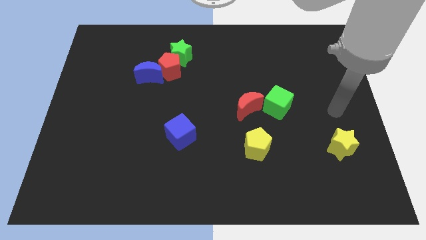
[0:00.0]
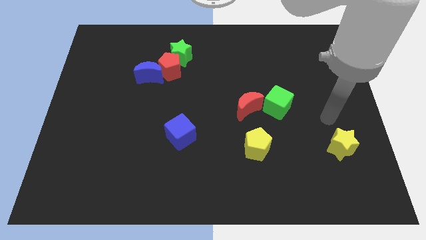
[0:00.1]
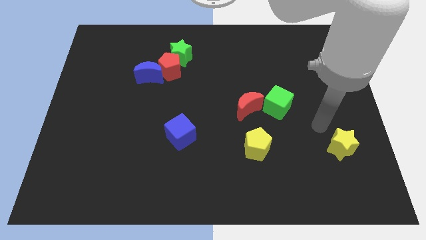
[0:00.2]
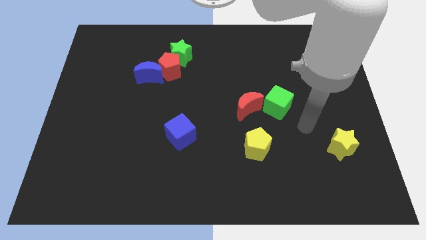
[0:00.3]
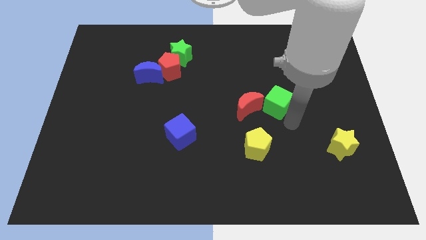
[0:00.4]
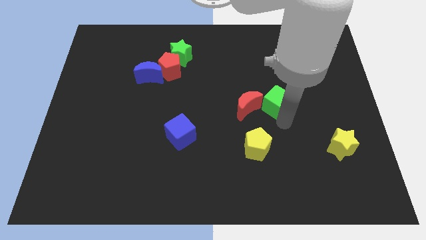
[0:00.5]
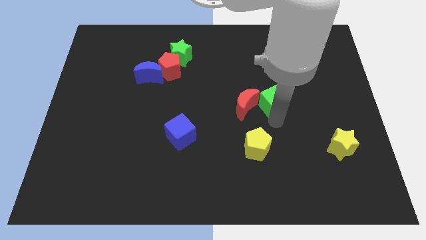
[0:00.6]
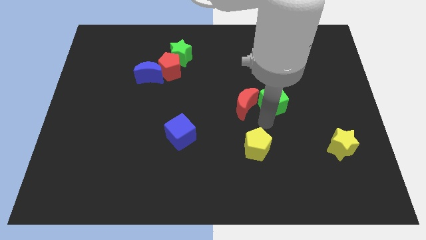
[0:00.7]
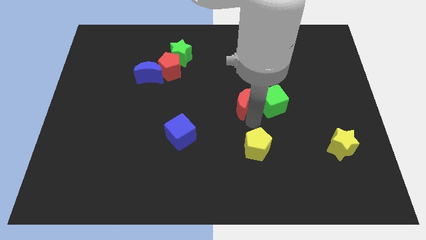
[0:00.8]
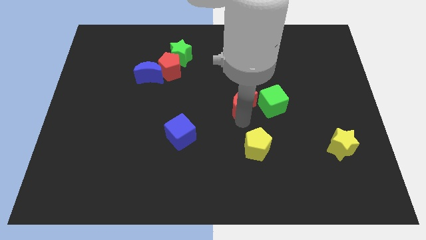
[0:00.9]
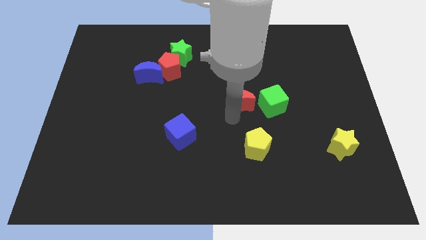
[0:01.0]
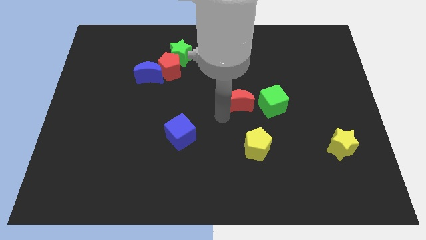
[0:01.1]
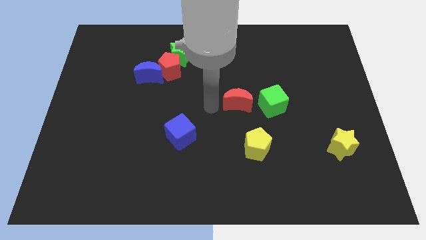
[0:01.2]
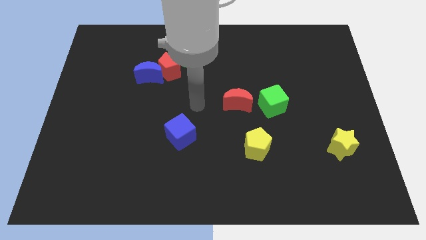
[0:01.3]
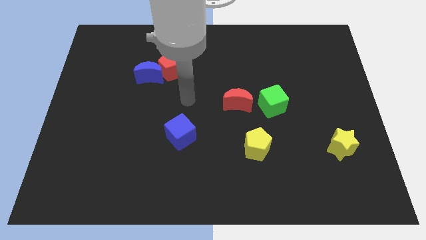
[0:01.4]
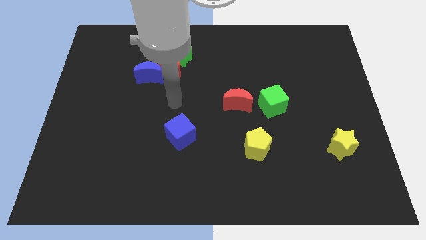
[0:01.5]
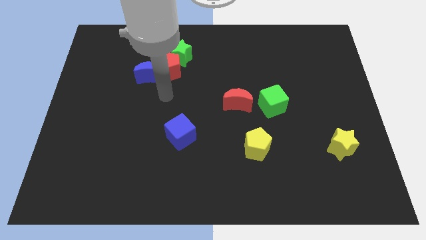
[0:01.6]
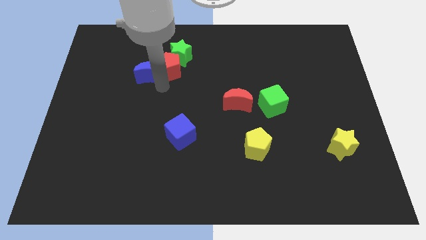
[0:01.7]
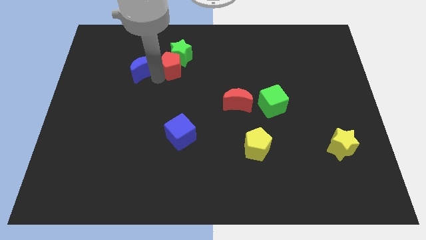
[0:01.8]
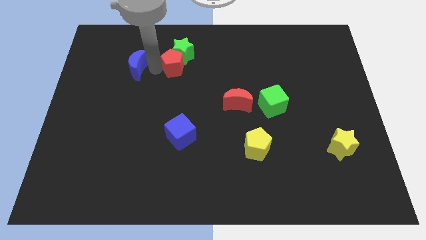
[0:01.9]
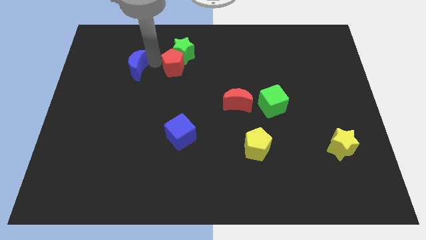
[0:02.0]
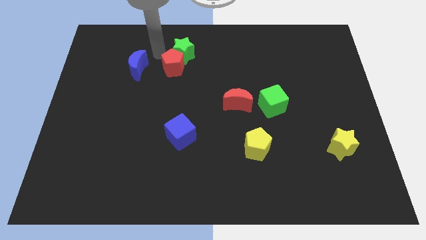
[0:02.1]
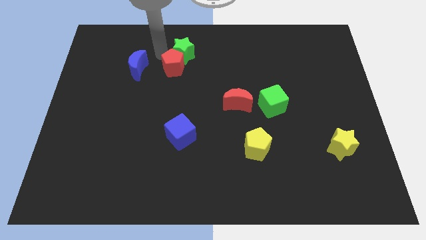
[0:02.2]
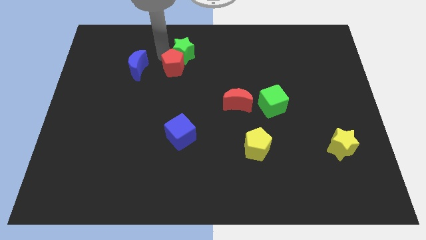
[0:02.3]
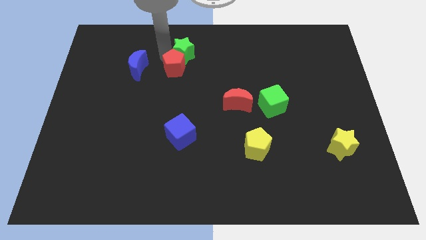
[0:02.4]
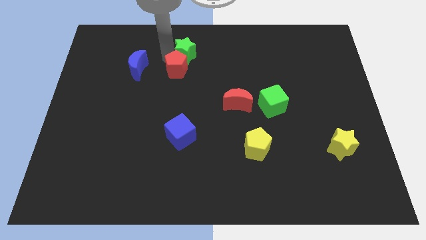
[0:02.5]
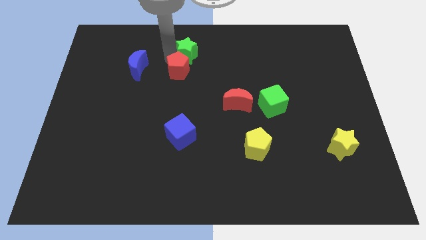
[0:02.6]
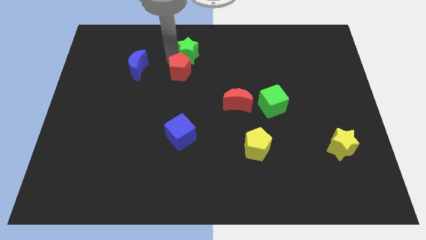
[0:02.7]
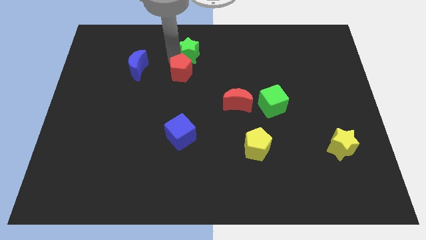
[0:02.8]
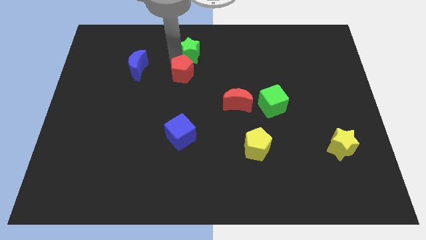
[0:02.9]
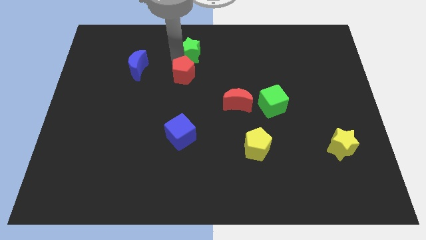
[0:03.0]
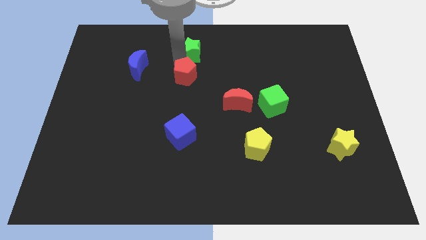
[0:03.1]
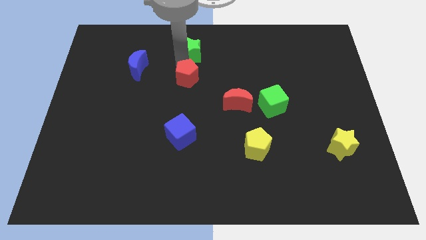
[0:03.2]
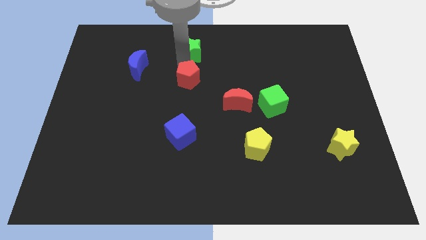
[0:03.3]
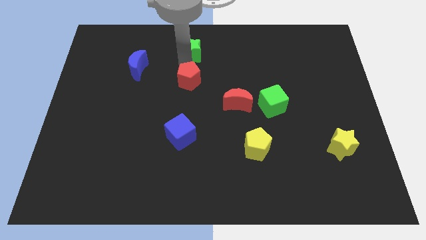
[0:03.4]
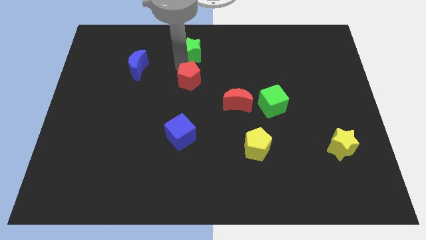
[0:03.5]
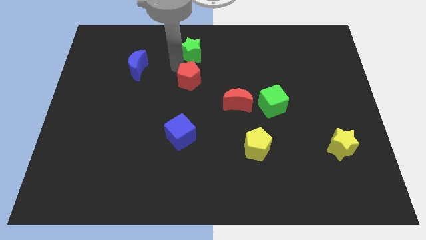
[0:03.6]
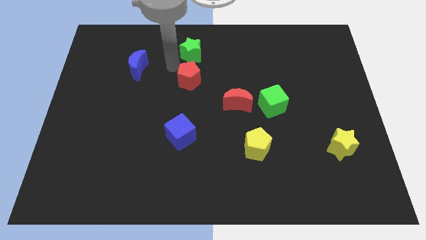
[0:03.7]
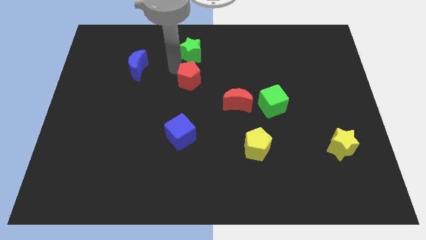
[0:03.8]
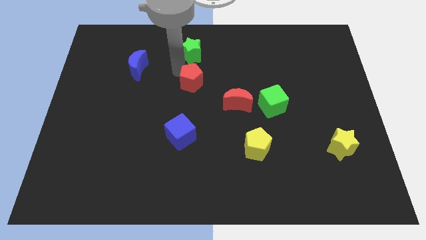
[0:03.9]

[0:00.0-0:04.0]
move the red pentagon away from the green star and blue moon

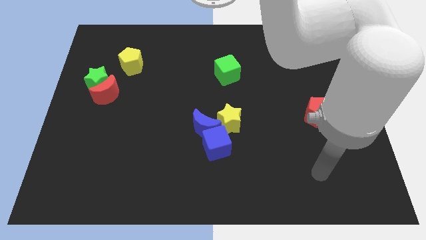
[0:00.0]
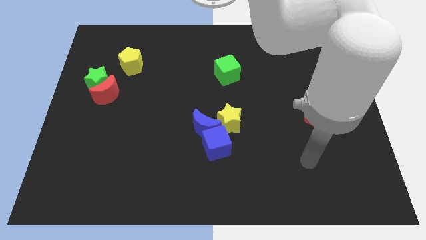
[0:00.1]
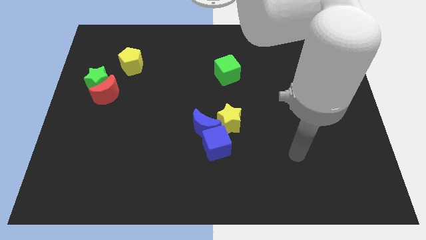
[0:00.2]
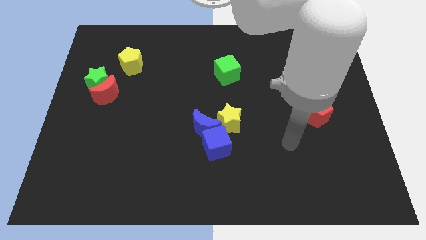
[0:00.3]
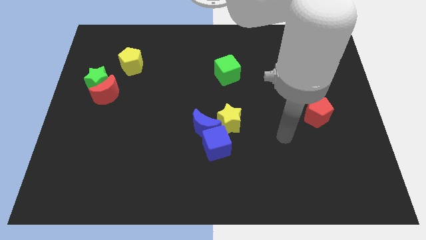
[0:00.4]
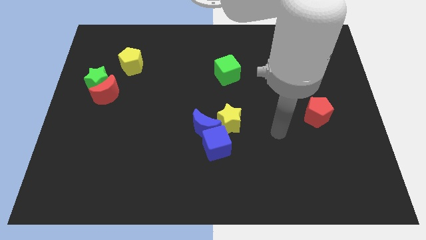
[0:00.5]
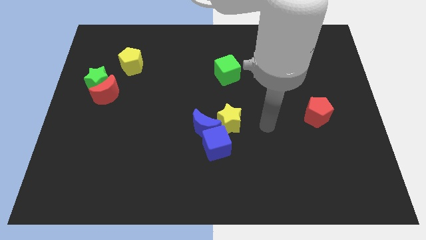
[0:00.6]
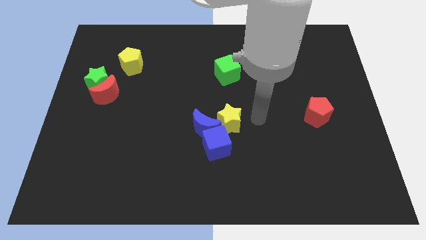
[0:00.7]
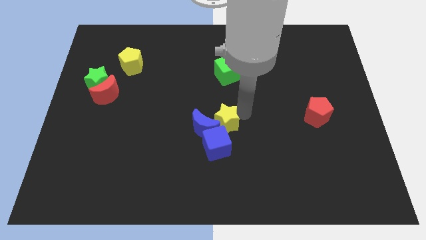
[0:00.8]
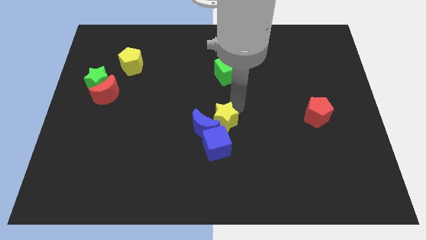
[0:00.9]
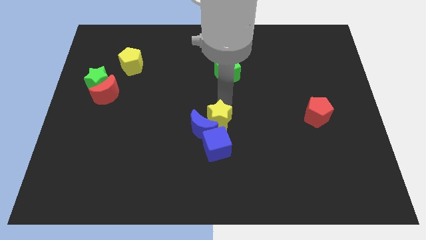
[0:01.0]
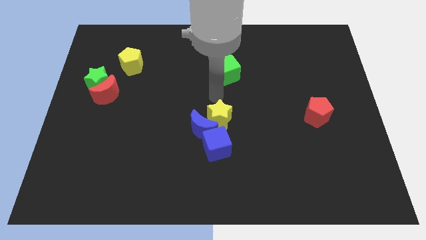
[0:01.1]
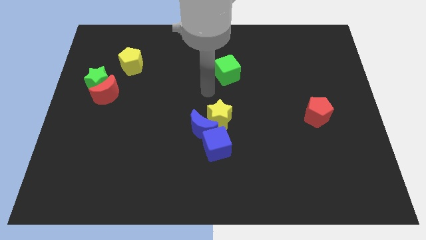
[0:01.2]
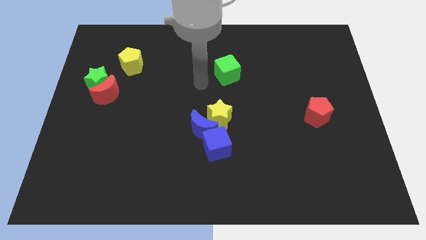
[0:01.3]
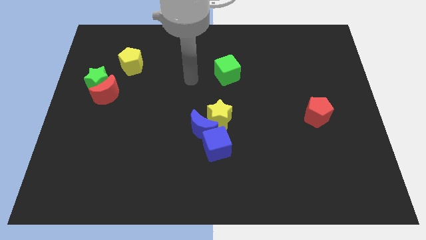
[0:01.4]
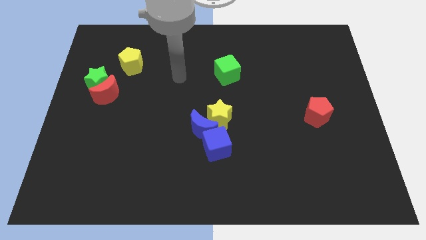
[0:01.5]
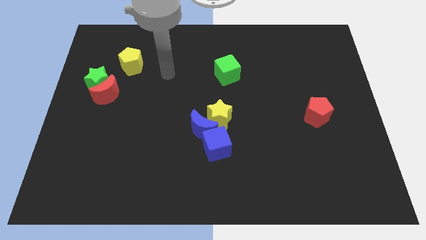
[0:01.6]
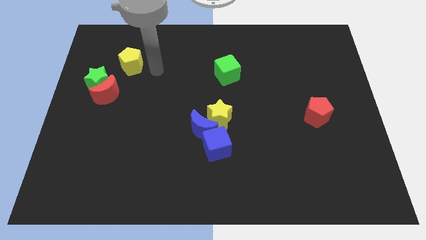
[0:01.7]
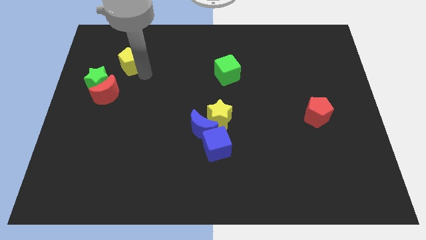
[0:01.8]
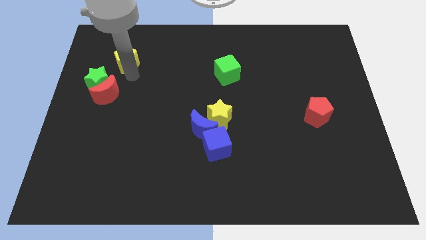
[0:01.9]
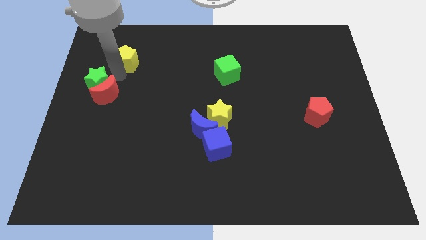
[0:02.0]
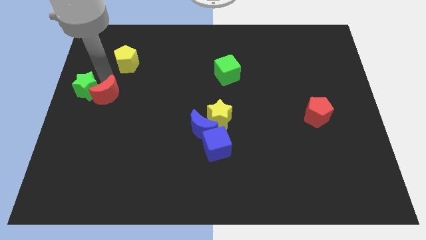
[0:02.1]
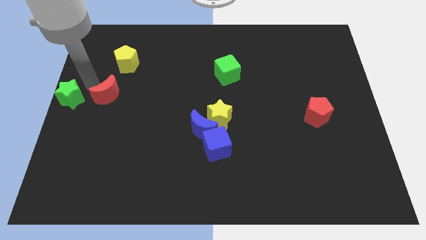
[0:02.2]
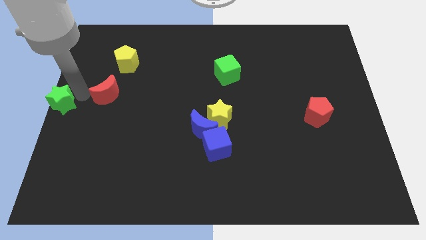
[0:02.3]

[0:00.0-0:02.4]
separate the red moon from the green star

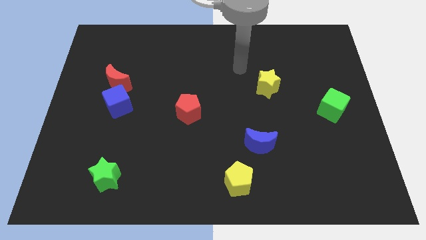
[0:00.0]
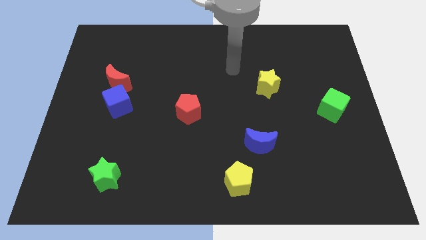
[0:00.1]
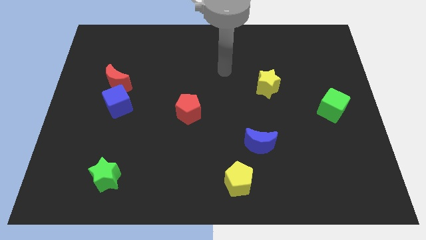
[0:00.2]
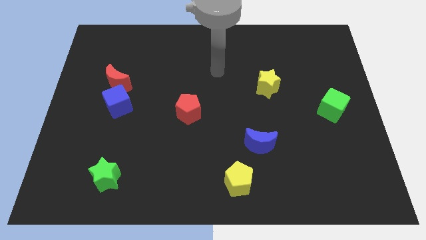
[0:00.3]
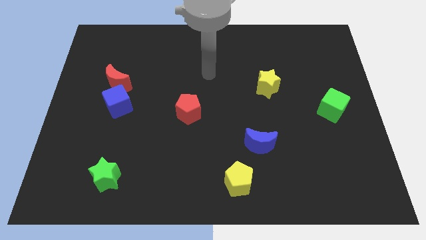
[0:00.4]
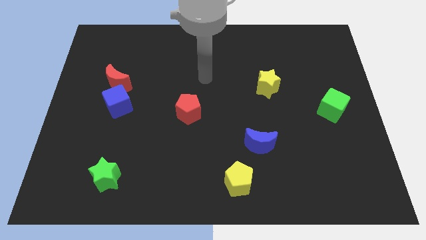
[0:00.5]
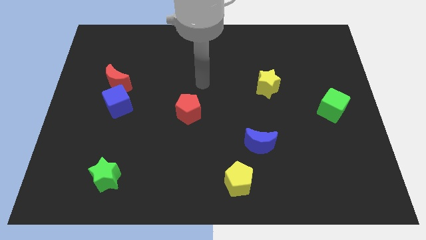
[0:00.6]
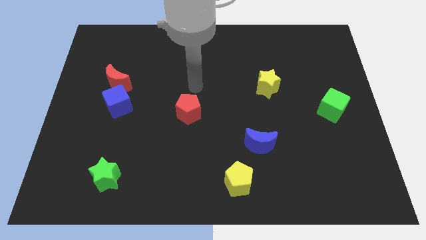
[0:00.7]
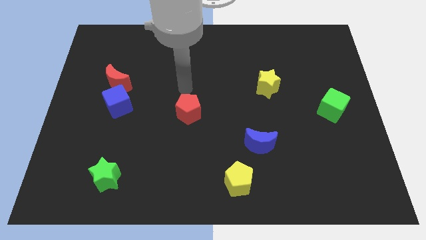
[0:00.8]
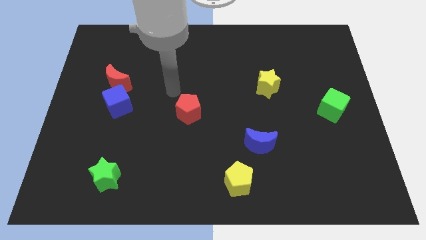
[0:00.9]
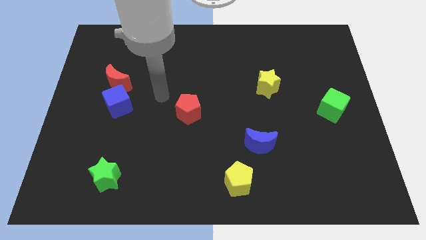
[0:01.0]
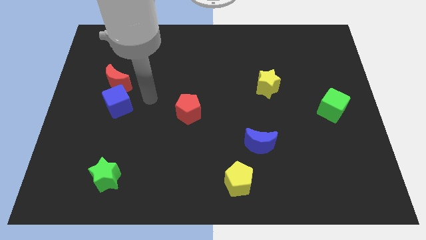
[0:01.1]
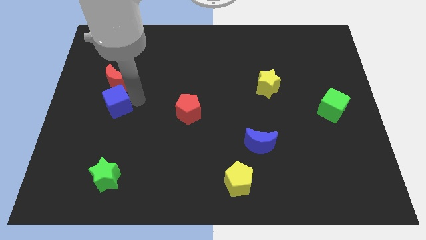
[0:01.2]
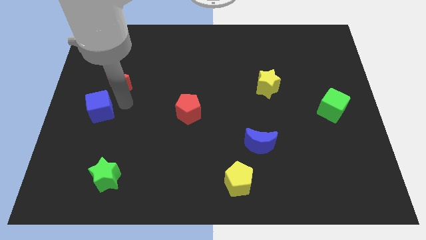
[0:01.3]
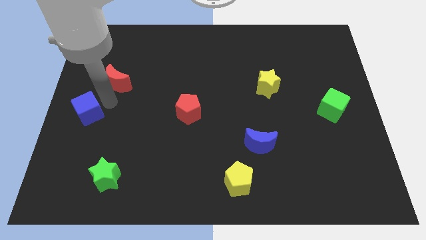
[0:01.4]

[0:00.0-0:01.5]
separate the red moon from the blue cube

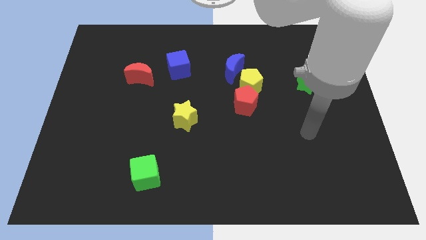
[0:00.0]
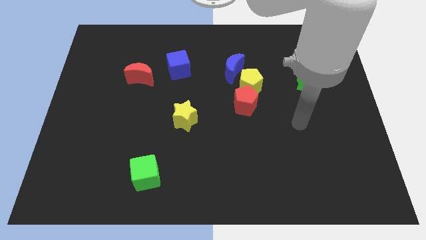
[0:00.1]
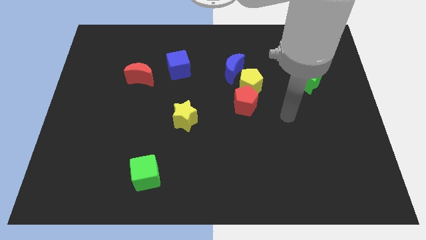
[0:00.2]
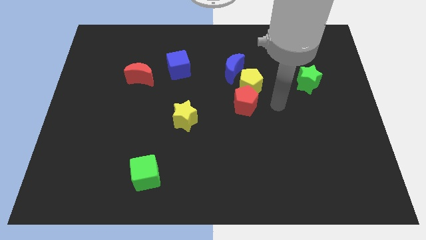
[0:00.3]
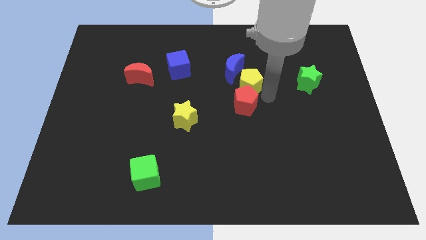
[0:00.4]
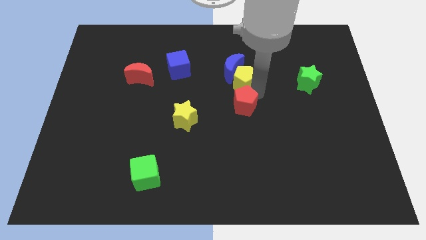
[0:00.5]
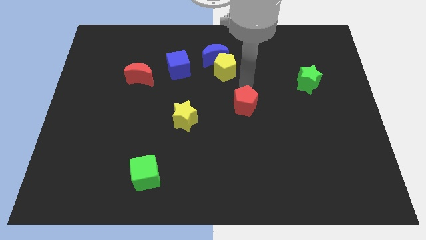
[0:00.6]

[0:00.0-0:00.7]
move the red pentagon away from the yellow pentagon

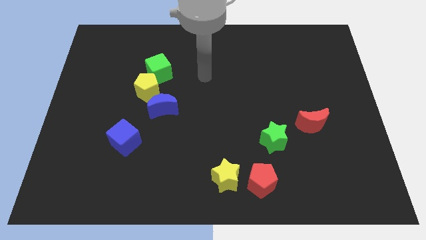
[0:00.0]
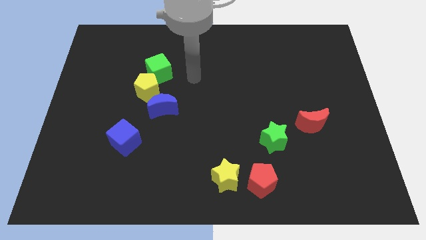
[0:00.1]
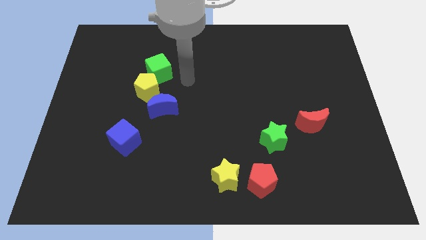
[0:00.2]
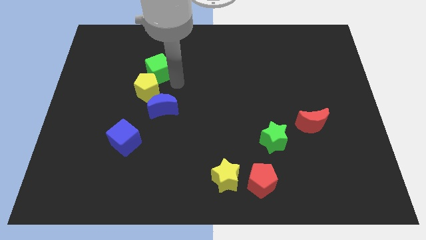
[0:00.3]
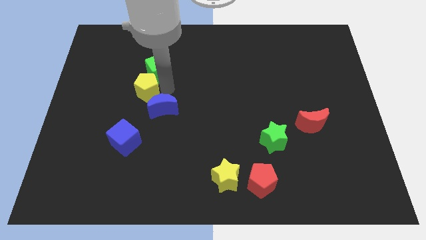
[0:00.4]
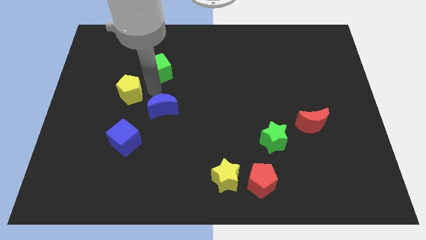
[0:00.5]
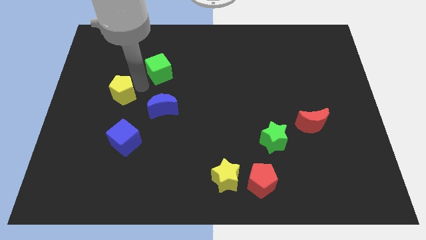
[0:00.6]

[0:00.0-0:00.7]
move the green cube away from the yellow pentagon
